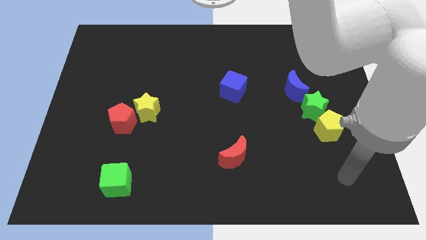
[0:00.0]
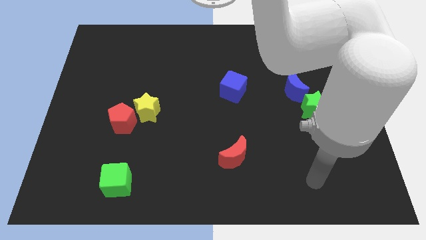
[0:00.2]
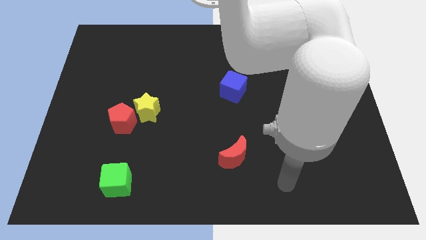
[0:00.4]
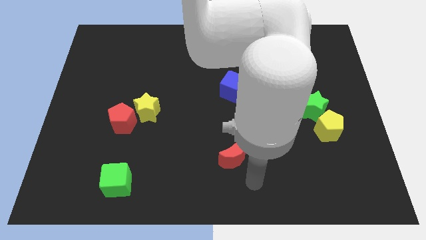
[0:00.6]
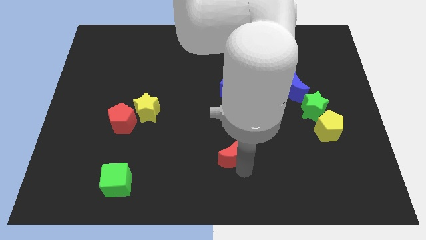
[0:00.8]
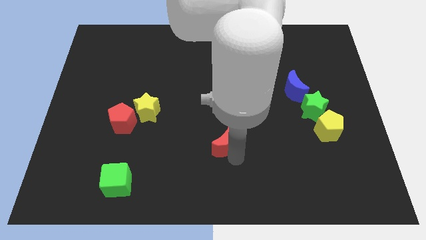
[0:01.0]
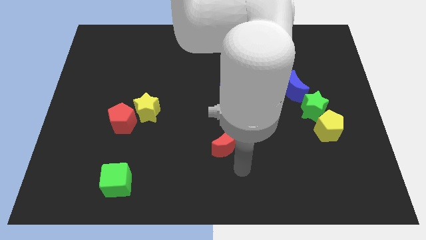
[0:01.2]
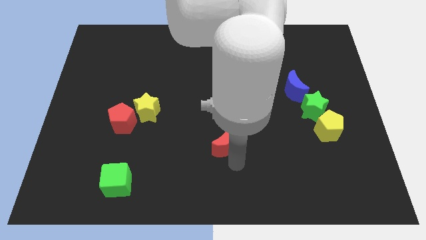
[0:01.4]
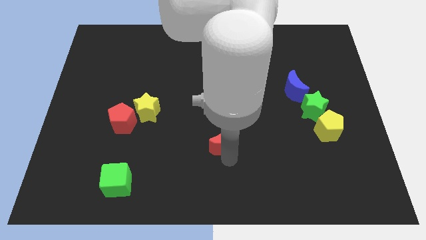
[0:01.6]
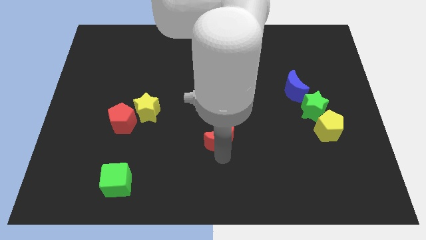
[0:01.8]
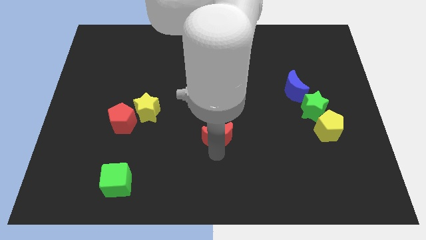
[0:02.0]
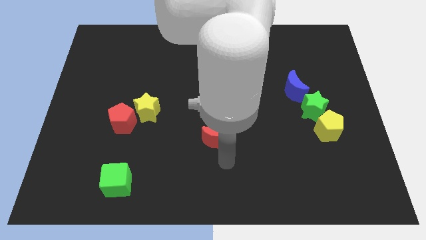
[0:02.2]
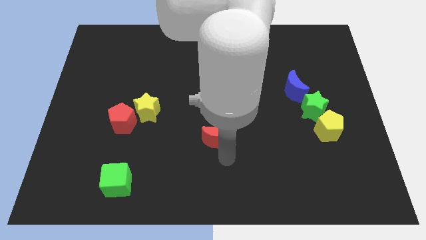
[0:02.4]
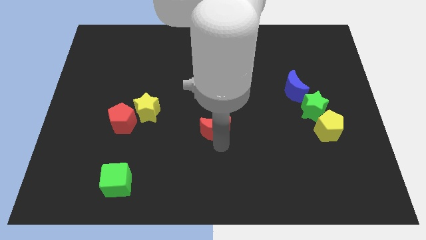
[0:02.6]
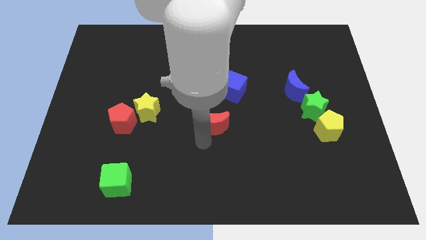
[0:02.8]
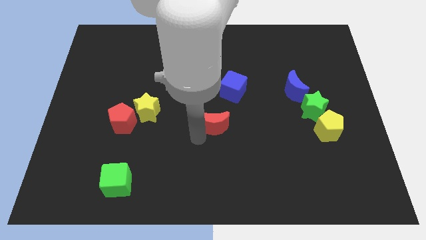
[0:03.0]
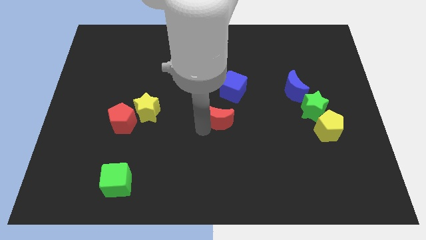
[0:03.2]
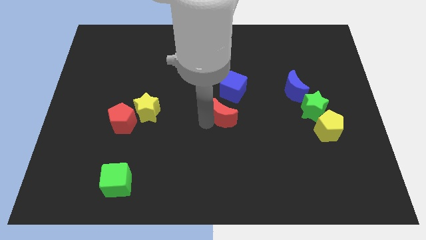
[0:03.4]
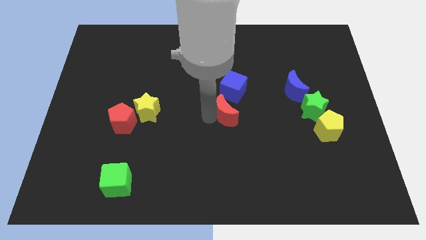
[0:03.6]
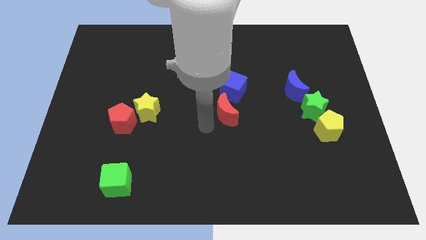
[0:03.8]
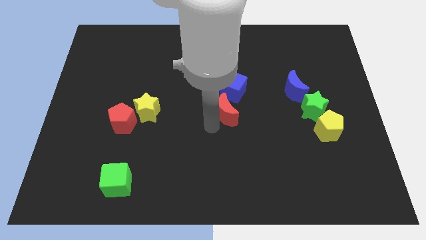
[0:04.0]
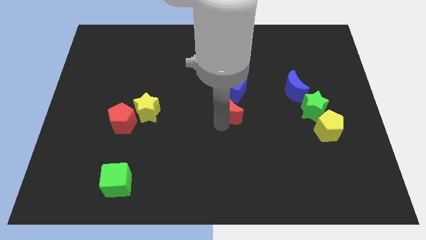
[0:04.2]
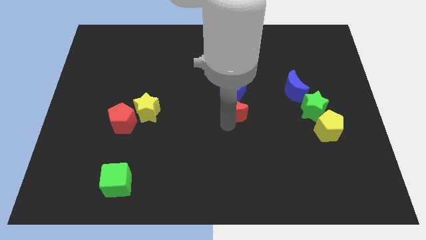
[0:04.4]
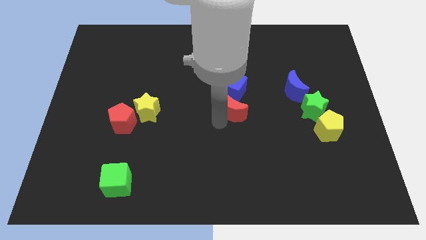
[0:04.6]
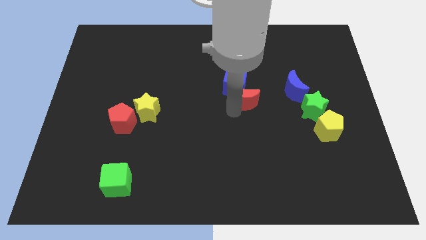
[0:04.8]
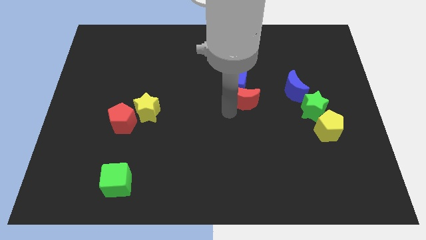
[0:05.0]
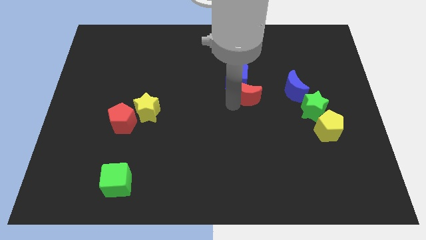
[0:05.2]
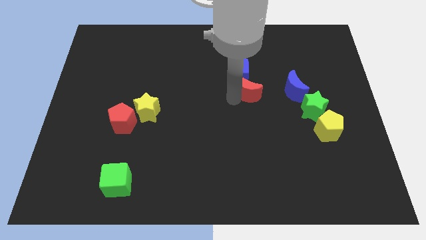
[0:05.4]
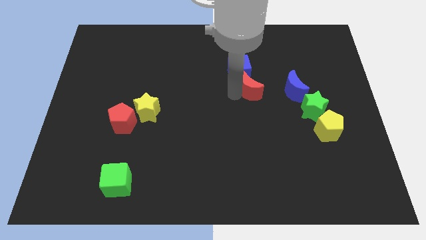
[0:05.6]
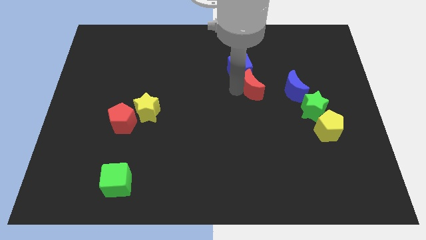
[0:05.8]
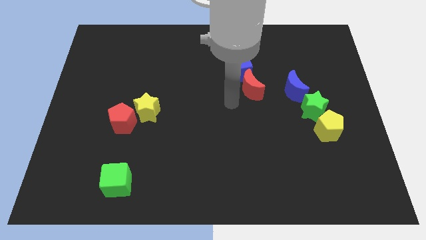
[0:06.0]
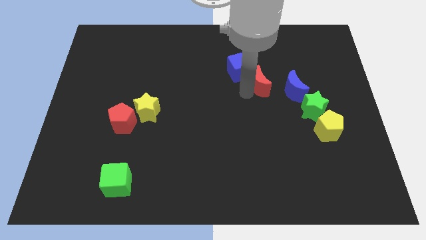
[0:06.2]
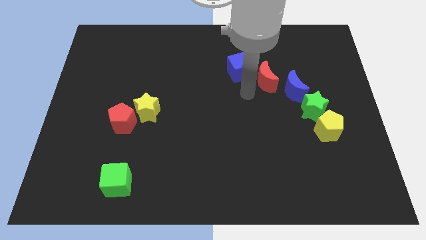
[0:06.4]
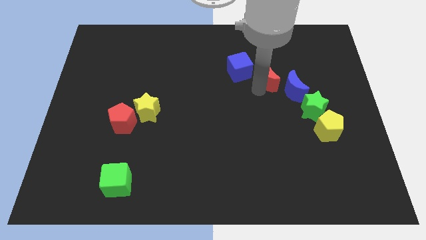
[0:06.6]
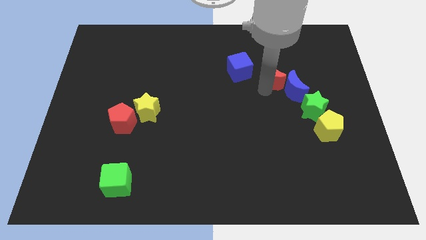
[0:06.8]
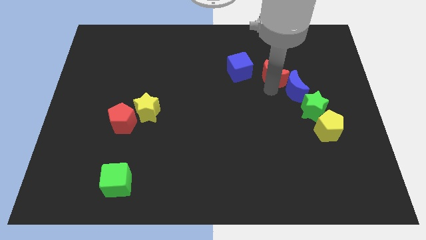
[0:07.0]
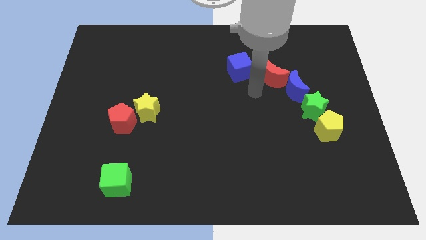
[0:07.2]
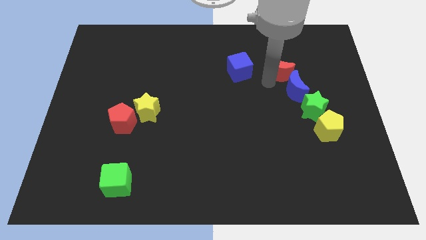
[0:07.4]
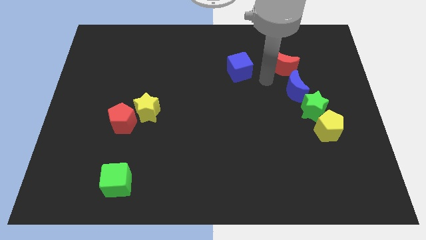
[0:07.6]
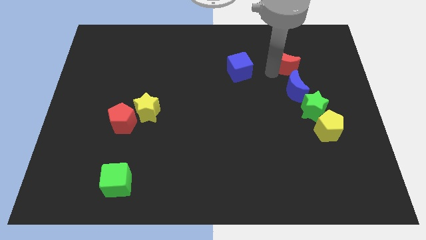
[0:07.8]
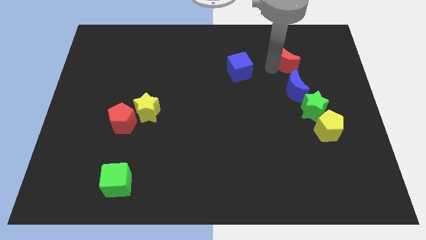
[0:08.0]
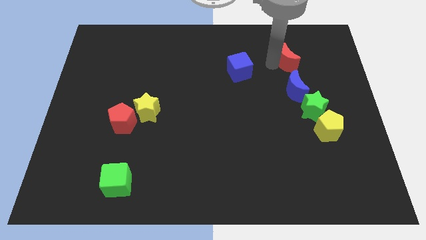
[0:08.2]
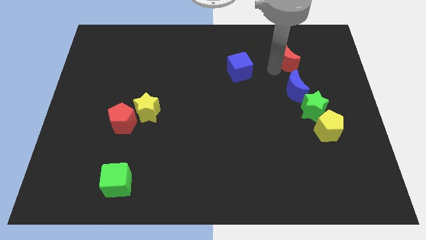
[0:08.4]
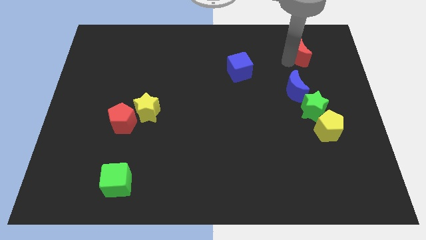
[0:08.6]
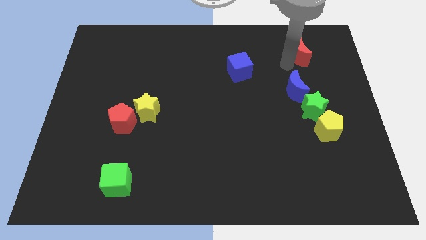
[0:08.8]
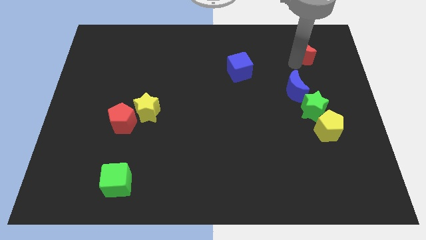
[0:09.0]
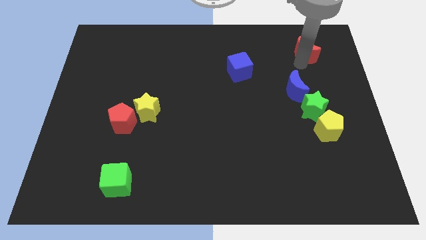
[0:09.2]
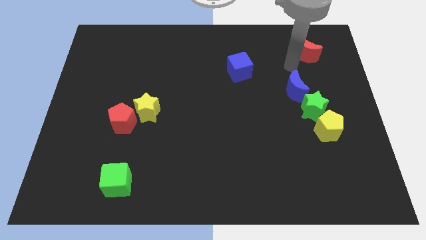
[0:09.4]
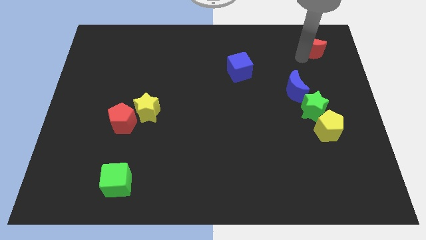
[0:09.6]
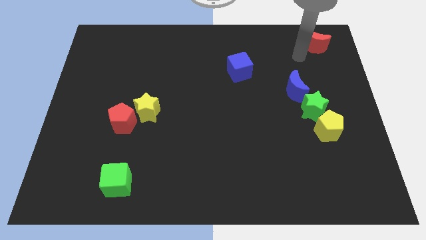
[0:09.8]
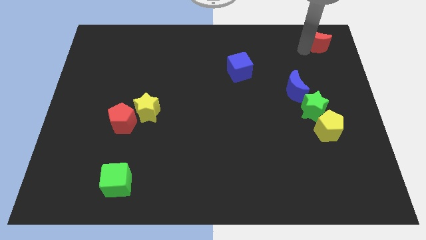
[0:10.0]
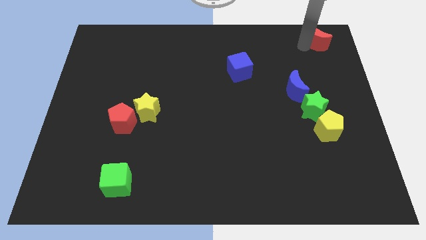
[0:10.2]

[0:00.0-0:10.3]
put the red moon to the top right of the board
